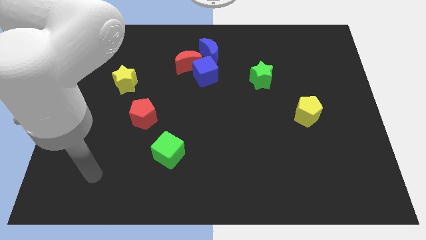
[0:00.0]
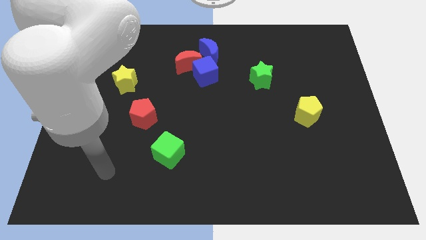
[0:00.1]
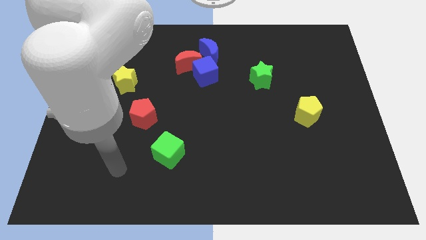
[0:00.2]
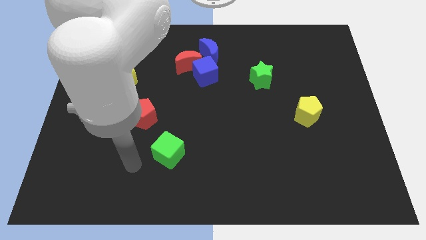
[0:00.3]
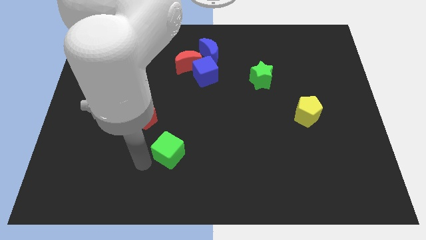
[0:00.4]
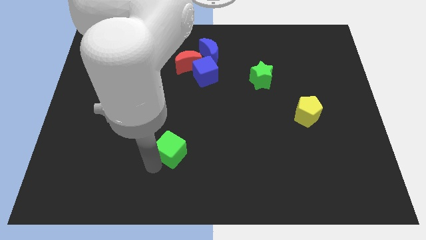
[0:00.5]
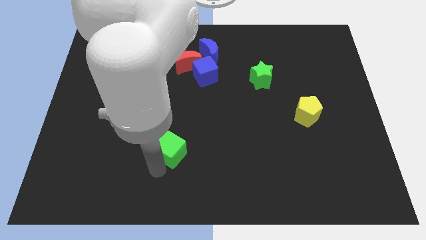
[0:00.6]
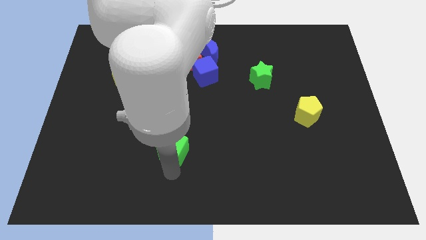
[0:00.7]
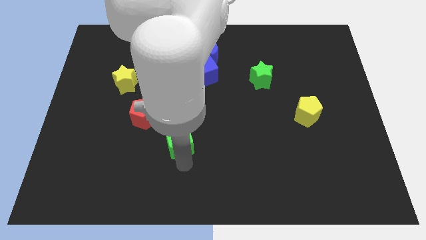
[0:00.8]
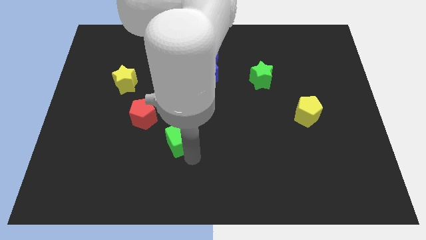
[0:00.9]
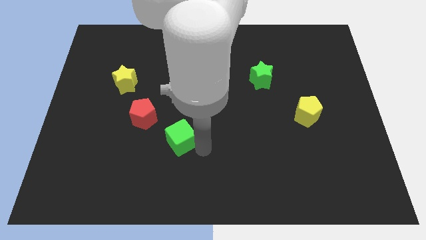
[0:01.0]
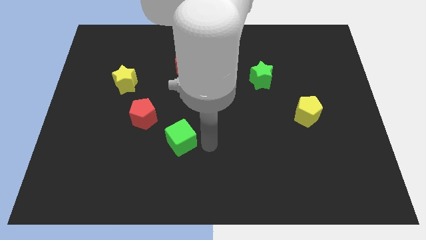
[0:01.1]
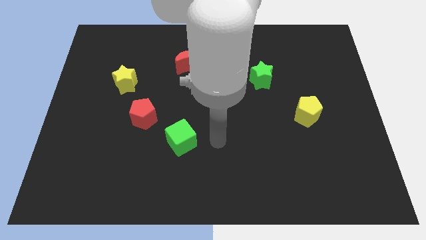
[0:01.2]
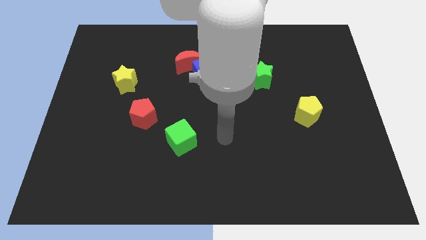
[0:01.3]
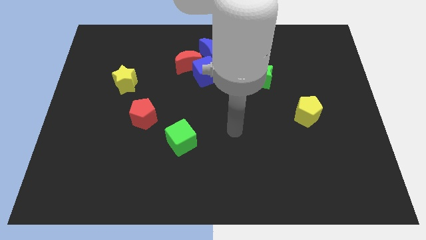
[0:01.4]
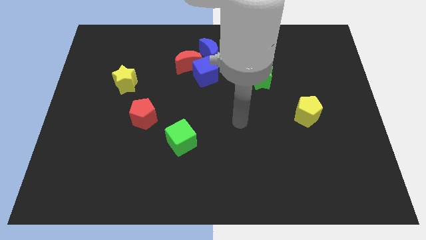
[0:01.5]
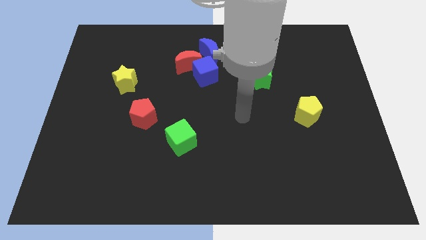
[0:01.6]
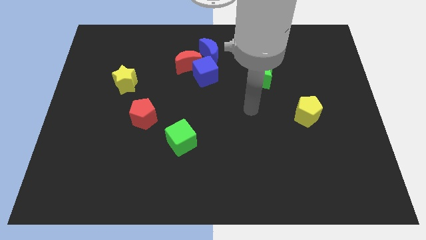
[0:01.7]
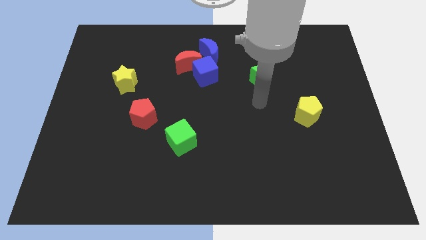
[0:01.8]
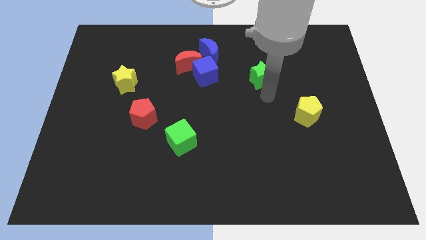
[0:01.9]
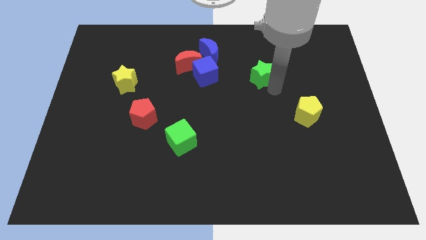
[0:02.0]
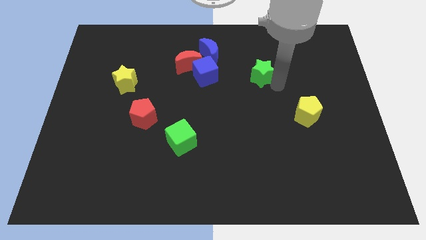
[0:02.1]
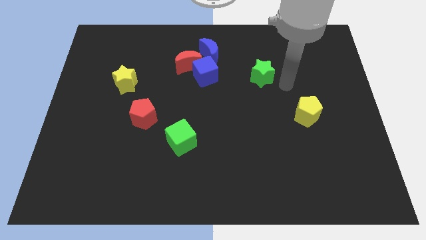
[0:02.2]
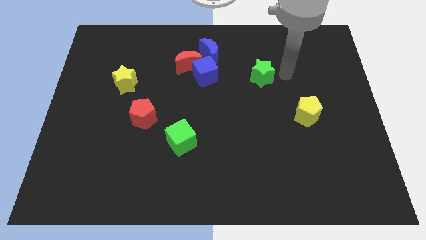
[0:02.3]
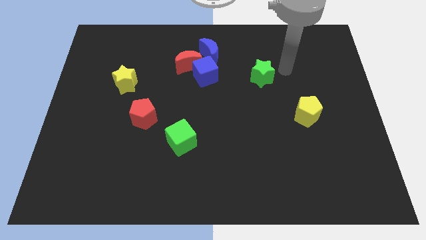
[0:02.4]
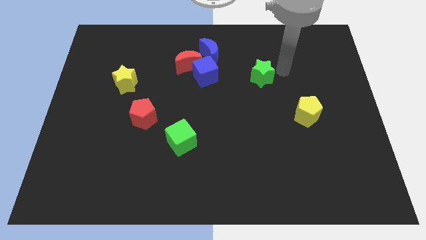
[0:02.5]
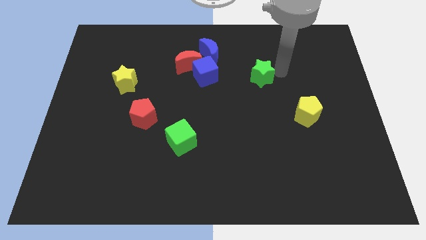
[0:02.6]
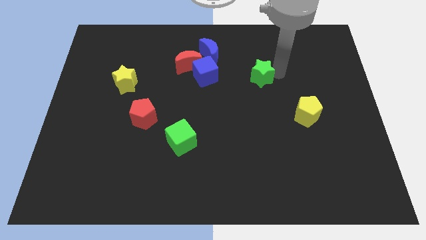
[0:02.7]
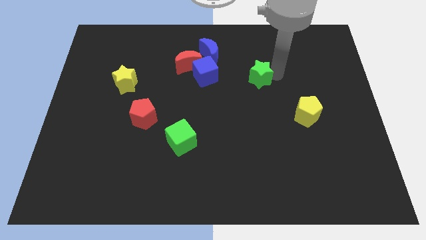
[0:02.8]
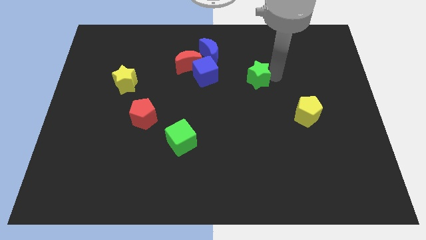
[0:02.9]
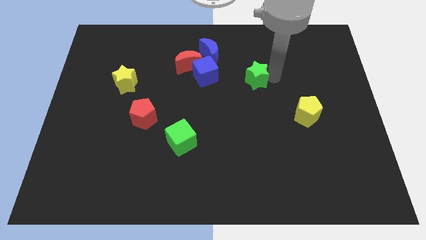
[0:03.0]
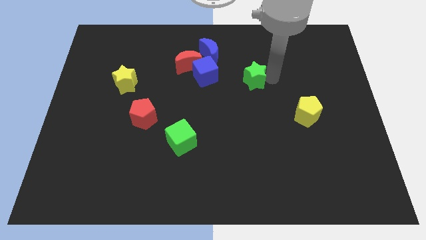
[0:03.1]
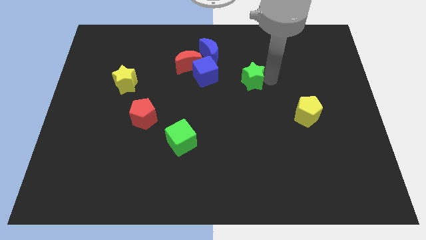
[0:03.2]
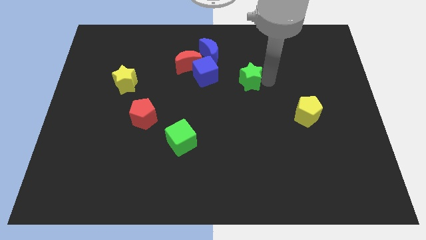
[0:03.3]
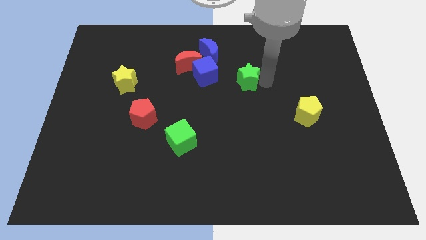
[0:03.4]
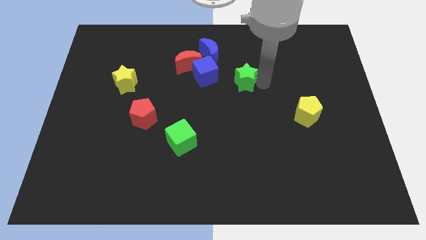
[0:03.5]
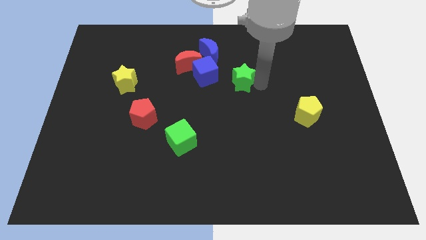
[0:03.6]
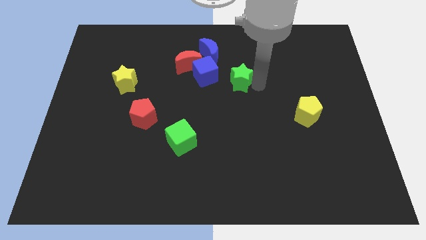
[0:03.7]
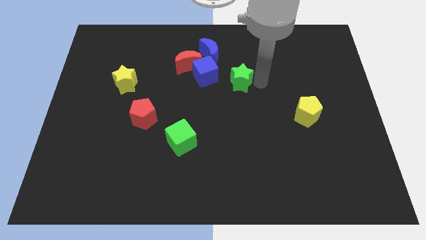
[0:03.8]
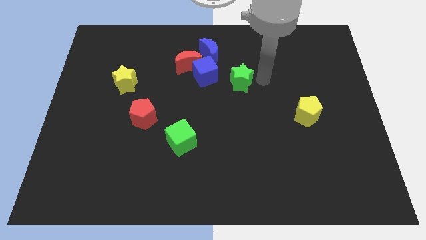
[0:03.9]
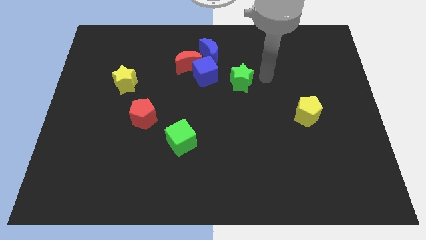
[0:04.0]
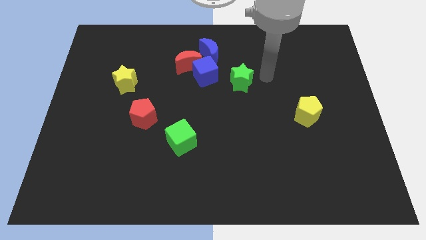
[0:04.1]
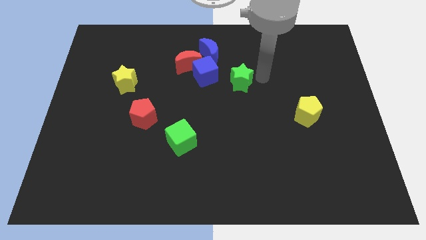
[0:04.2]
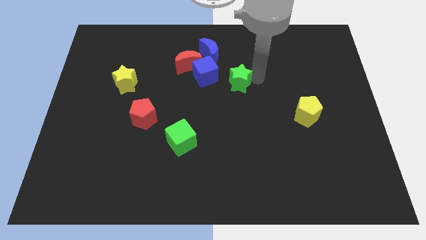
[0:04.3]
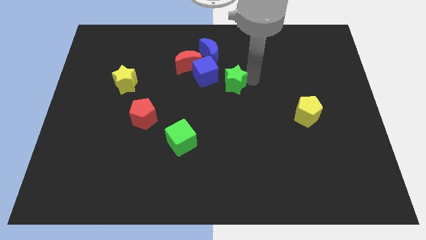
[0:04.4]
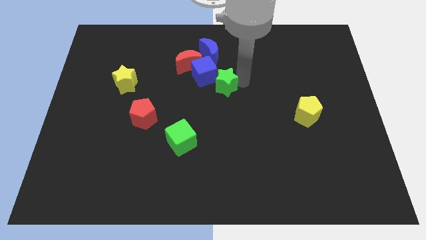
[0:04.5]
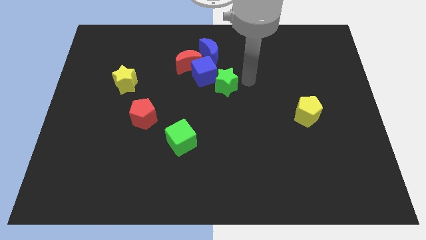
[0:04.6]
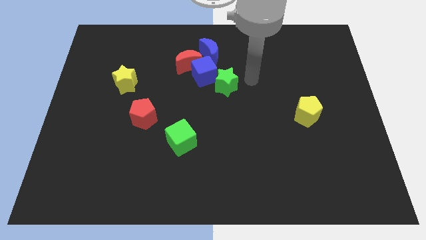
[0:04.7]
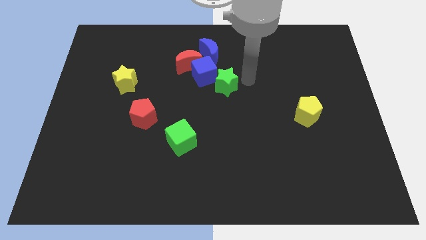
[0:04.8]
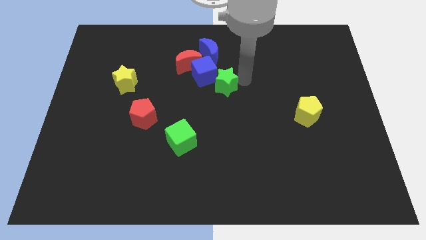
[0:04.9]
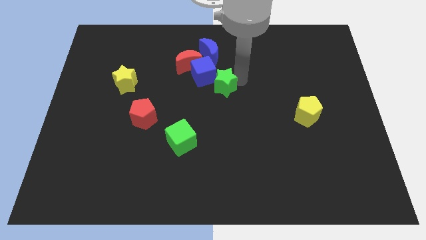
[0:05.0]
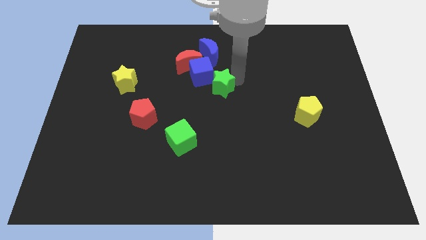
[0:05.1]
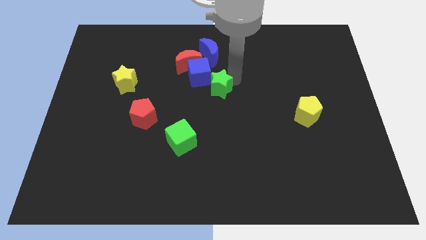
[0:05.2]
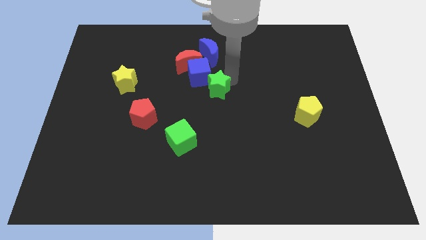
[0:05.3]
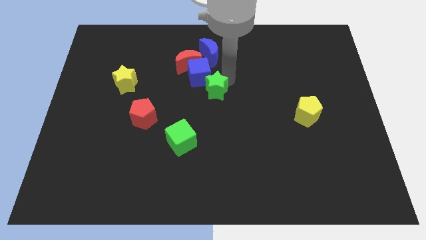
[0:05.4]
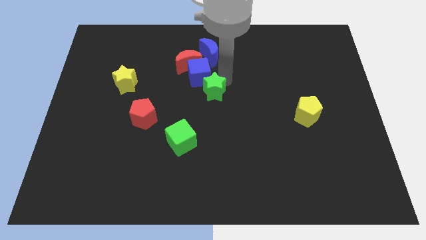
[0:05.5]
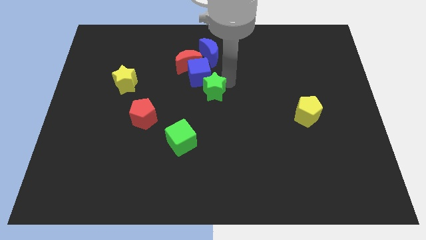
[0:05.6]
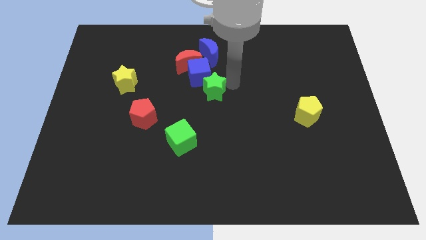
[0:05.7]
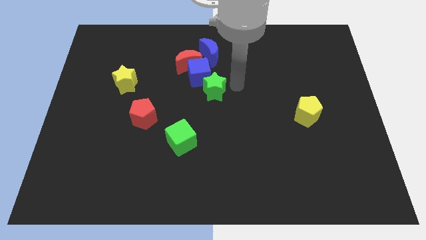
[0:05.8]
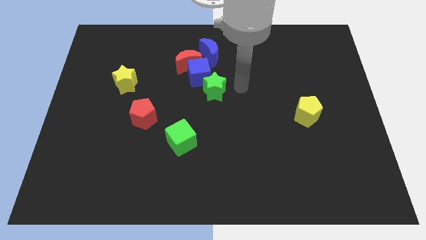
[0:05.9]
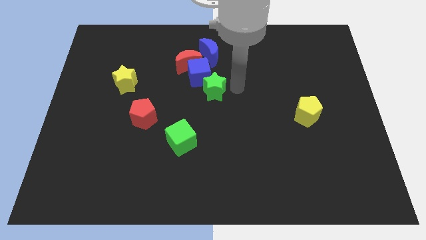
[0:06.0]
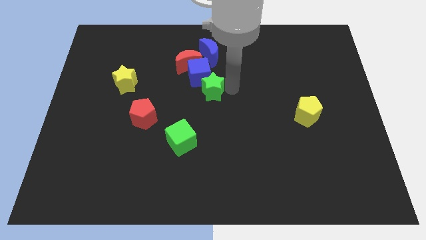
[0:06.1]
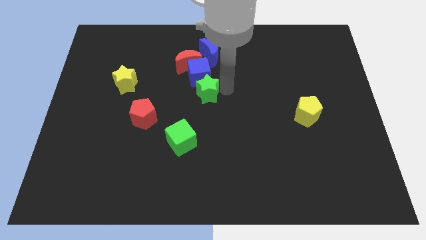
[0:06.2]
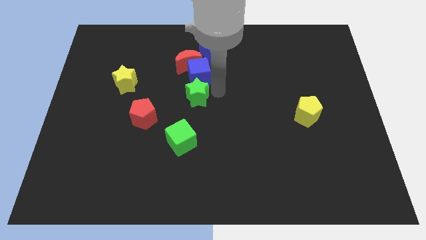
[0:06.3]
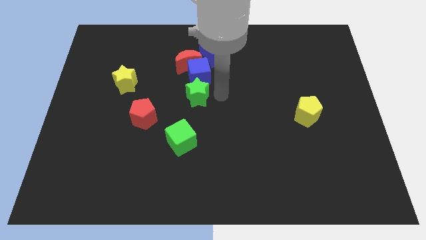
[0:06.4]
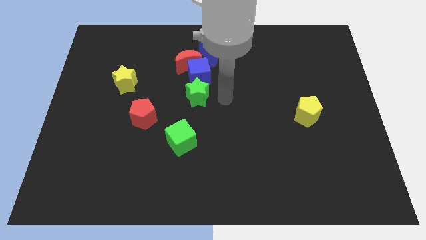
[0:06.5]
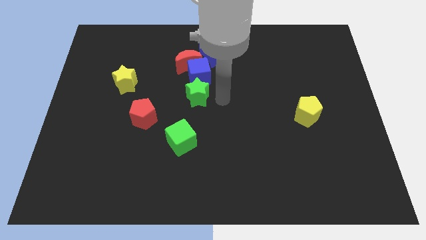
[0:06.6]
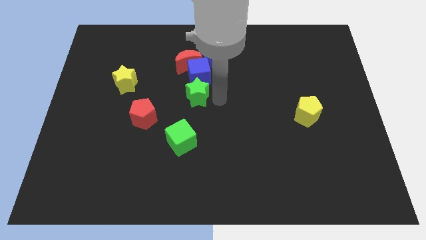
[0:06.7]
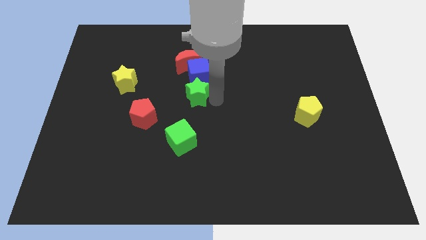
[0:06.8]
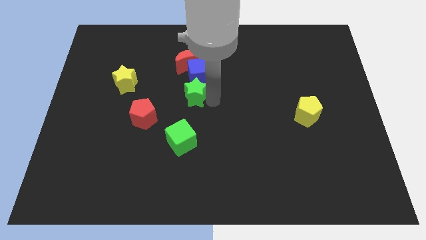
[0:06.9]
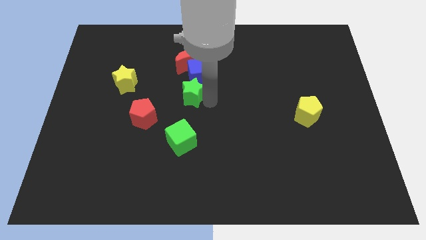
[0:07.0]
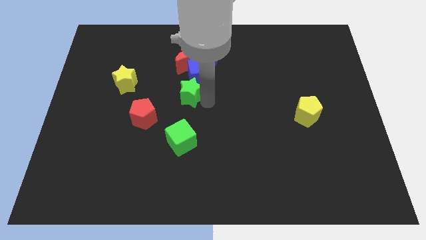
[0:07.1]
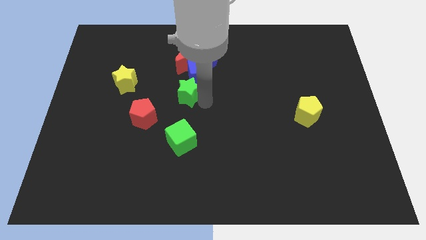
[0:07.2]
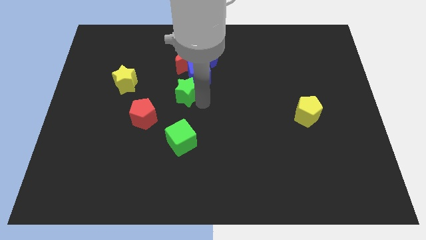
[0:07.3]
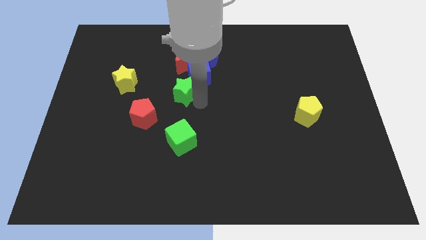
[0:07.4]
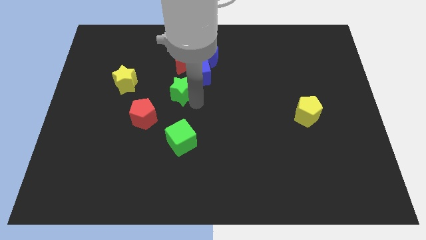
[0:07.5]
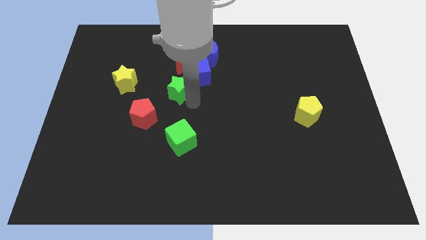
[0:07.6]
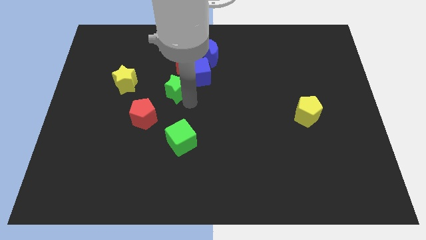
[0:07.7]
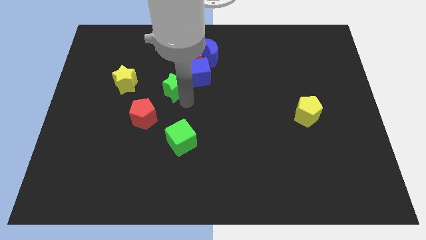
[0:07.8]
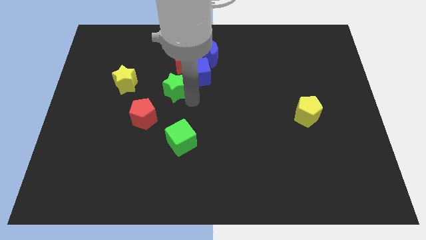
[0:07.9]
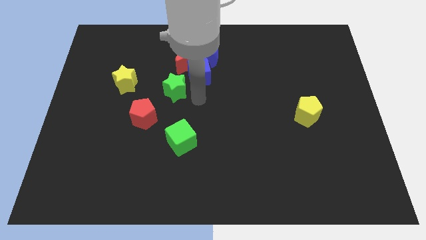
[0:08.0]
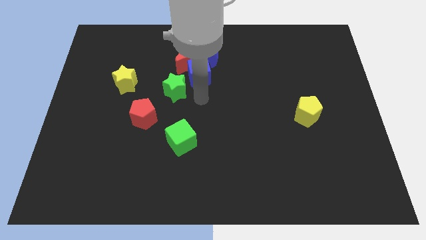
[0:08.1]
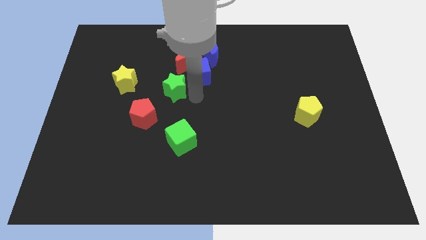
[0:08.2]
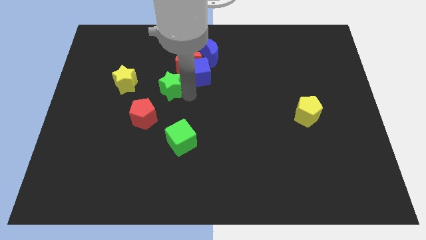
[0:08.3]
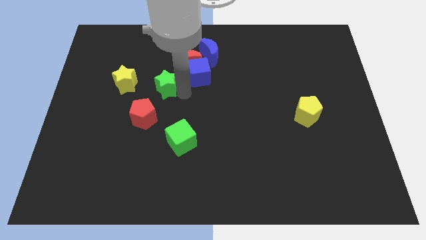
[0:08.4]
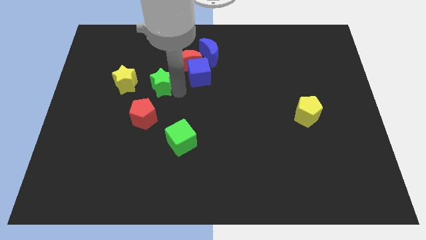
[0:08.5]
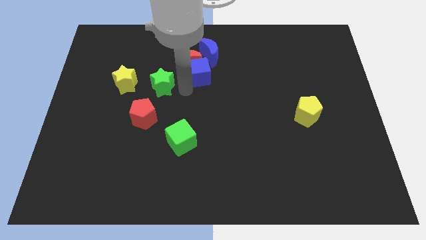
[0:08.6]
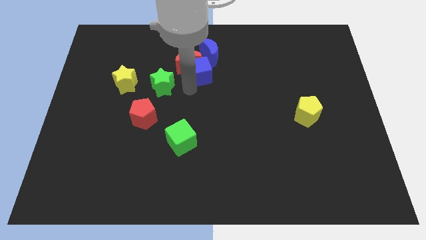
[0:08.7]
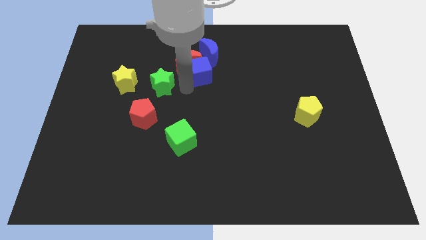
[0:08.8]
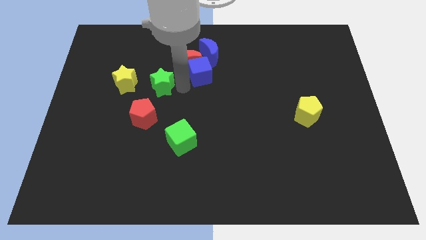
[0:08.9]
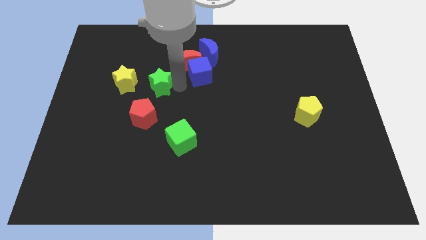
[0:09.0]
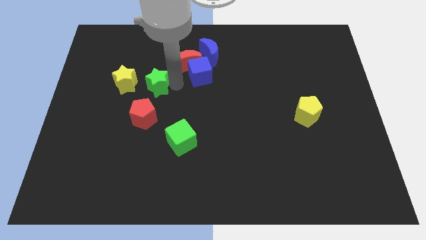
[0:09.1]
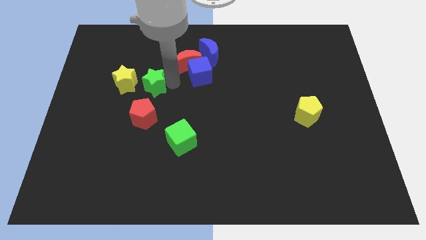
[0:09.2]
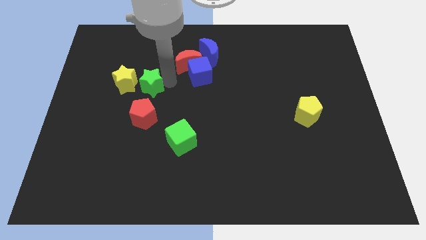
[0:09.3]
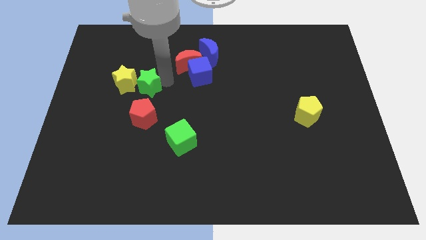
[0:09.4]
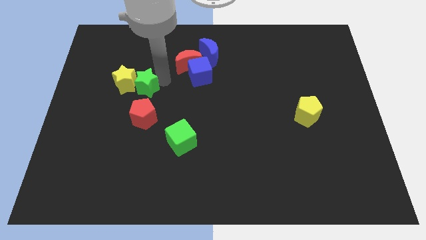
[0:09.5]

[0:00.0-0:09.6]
put the green star close to the yellow star
